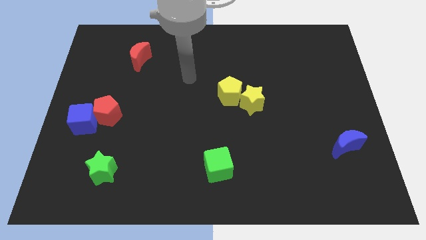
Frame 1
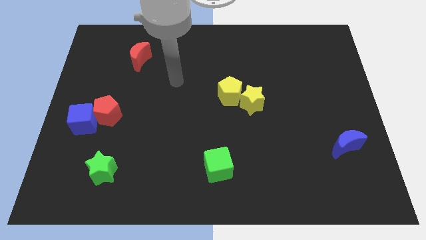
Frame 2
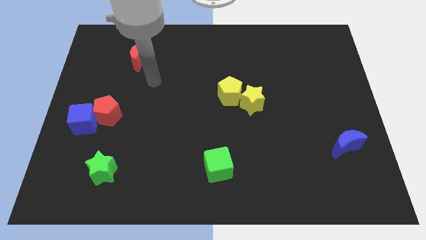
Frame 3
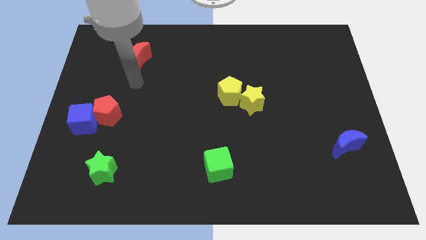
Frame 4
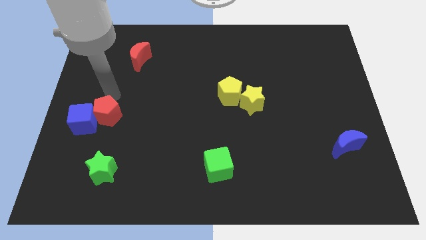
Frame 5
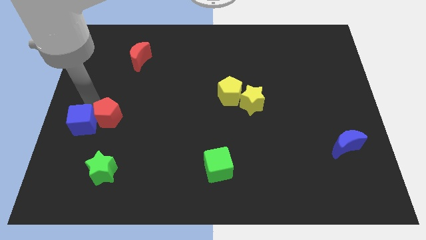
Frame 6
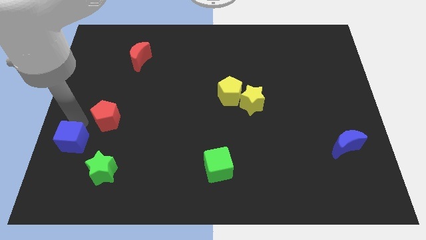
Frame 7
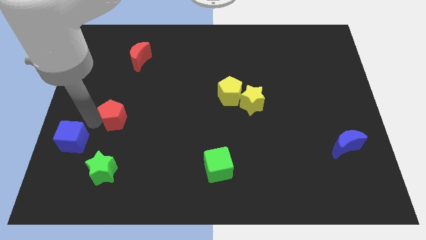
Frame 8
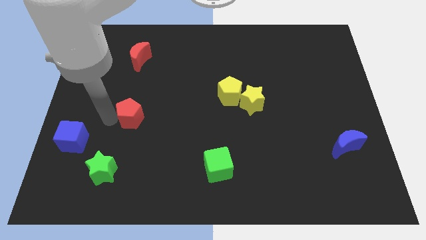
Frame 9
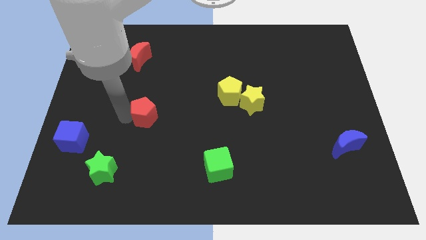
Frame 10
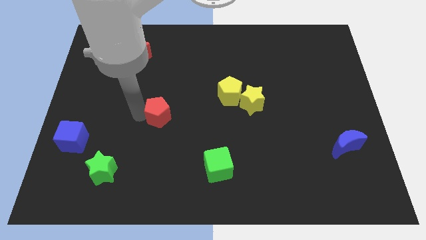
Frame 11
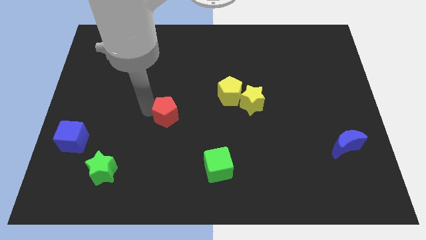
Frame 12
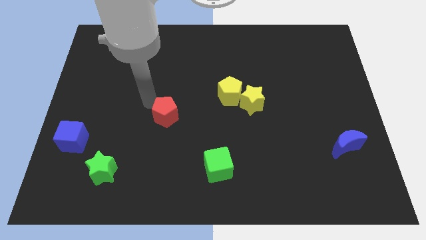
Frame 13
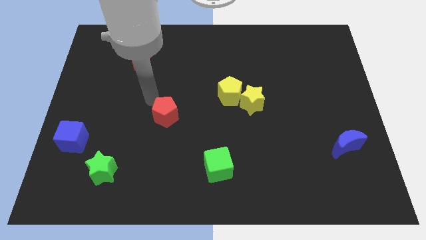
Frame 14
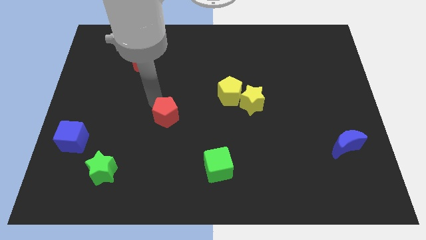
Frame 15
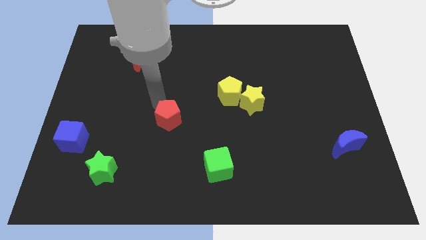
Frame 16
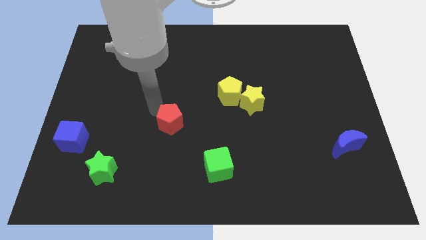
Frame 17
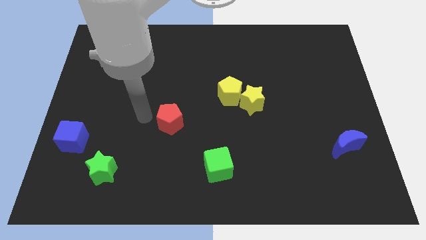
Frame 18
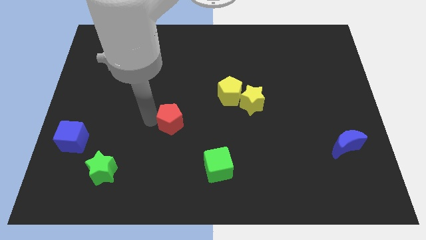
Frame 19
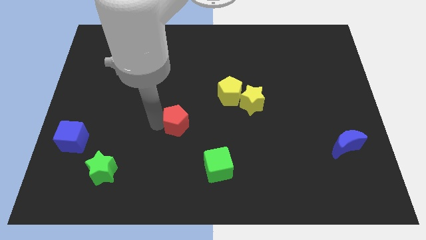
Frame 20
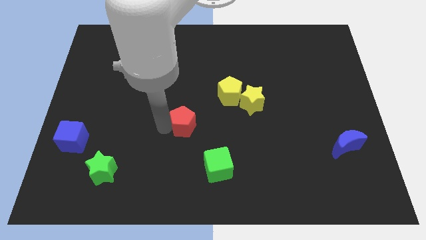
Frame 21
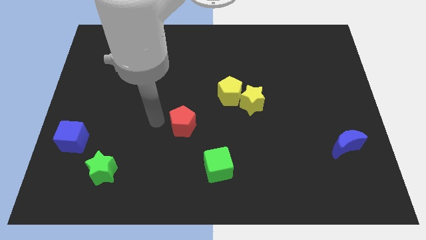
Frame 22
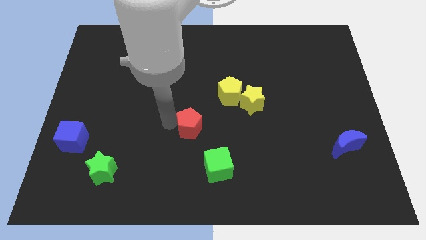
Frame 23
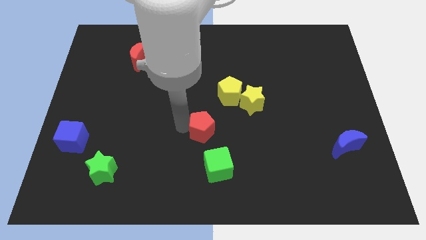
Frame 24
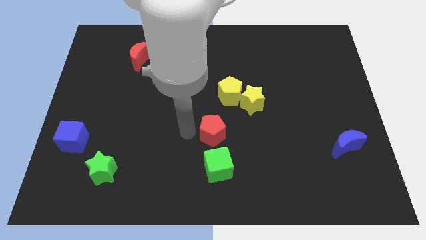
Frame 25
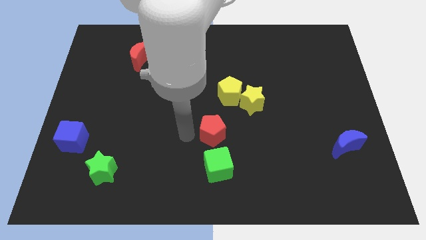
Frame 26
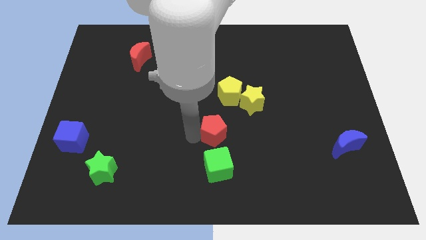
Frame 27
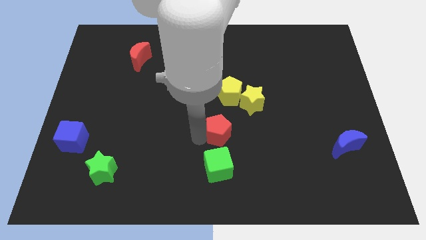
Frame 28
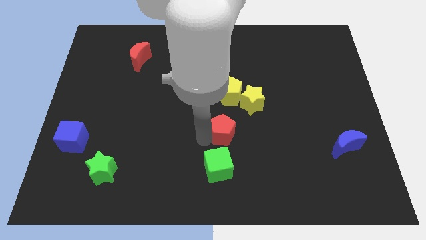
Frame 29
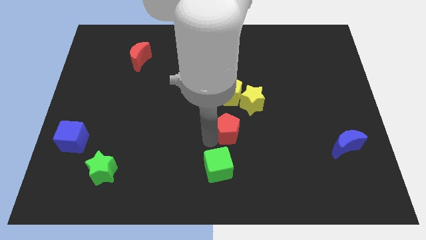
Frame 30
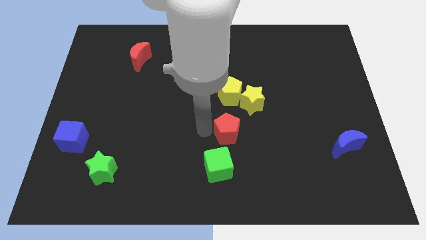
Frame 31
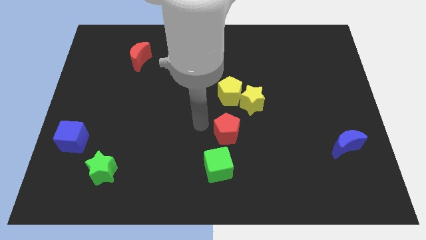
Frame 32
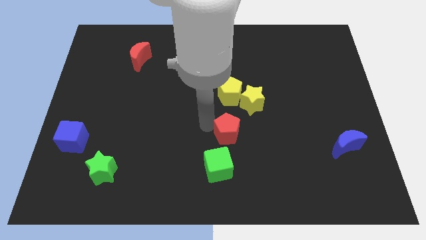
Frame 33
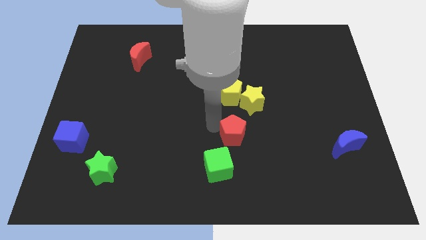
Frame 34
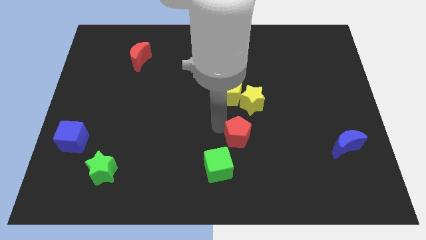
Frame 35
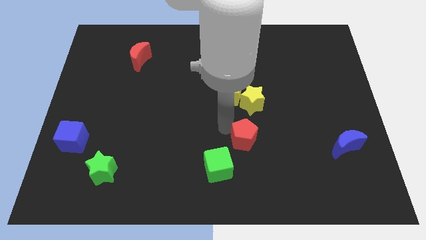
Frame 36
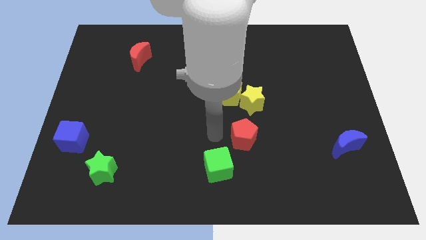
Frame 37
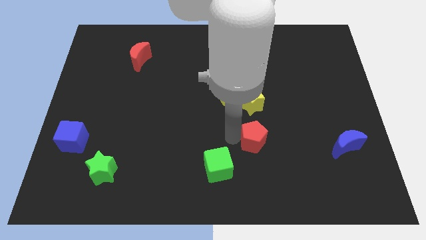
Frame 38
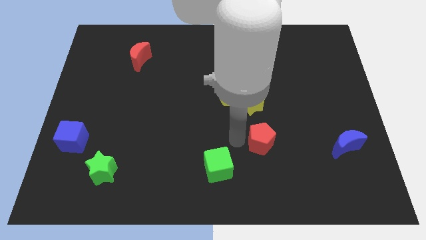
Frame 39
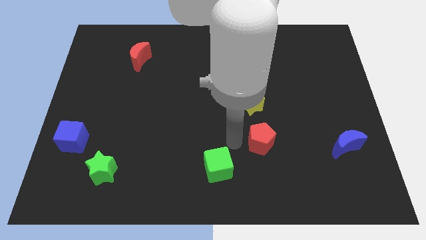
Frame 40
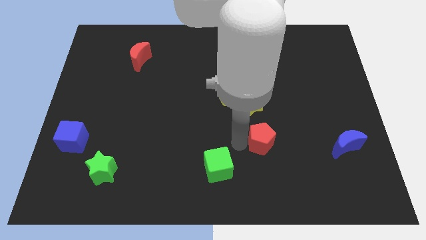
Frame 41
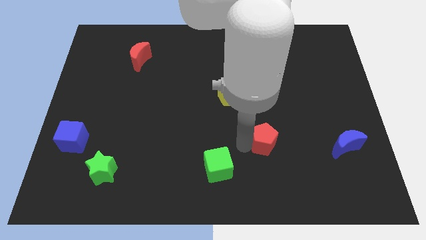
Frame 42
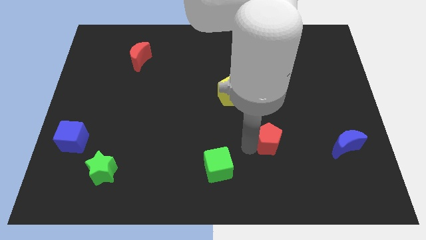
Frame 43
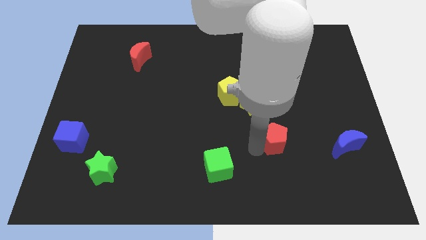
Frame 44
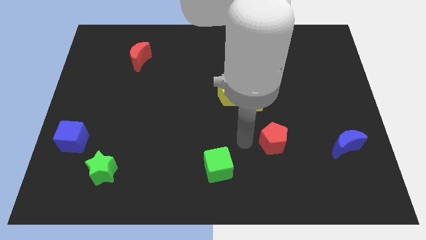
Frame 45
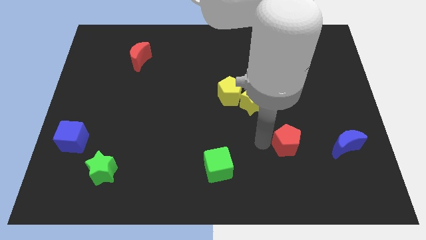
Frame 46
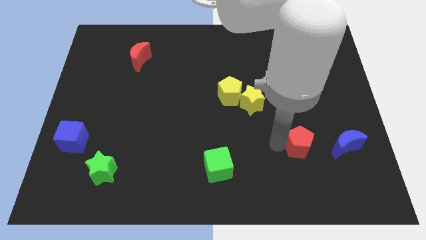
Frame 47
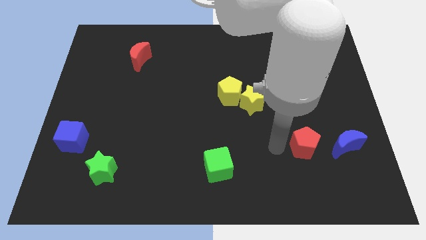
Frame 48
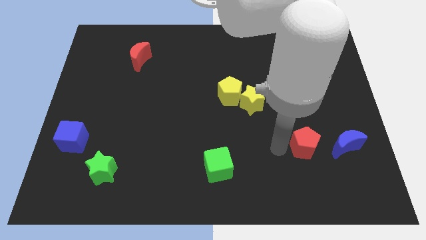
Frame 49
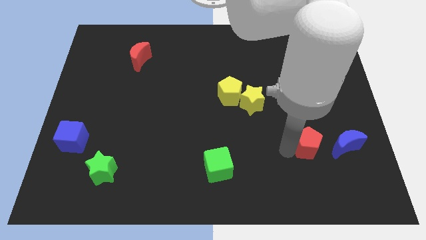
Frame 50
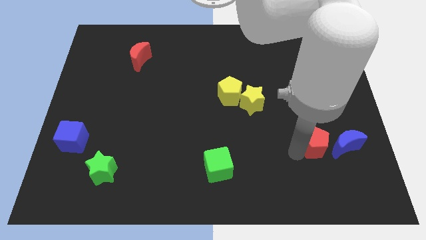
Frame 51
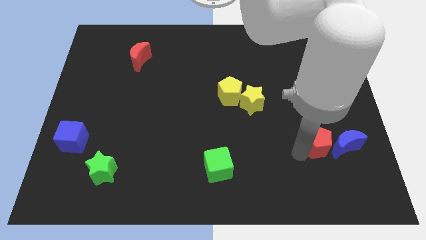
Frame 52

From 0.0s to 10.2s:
move the red pentagon towards the blue moon
